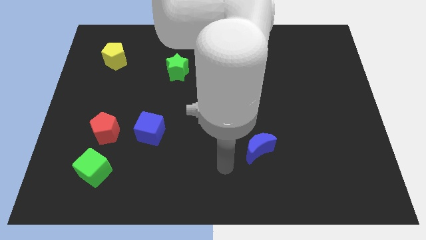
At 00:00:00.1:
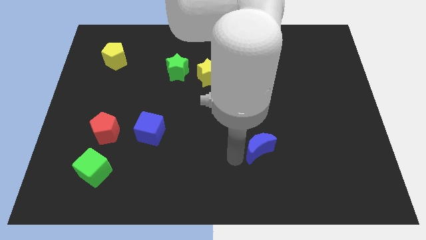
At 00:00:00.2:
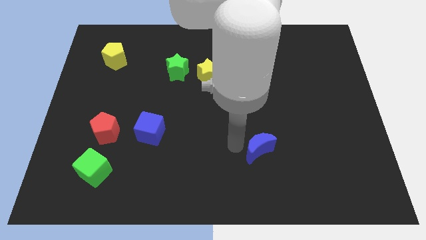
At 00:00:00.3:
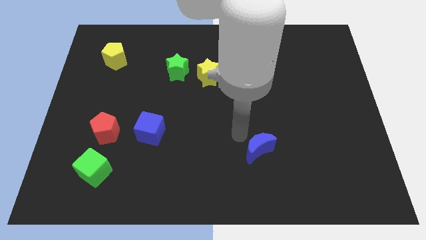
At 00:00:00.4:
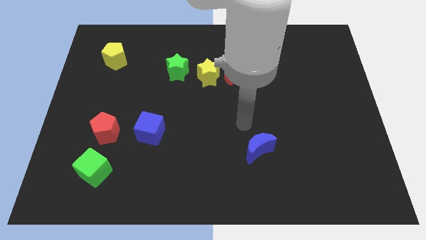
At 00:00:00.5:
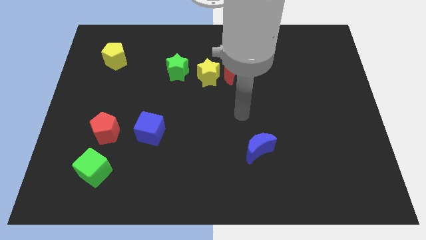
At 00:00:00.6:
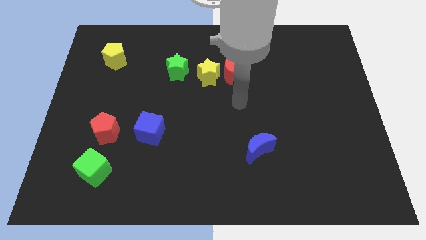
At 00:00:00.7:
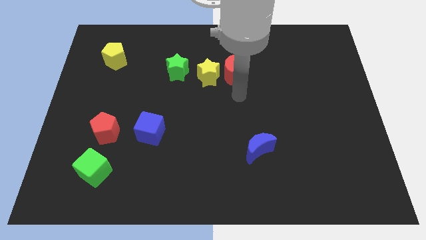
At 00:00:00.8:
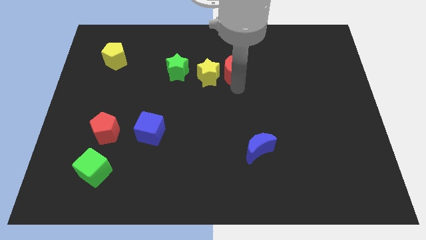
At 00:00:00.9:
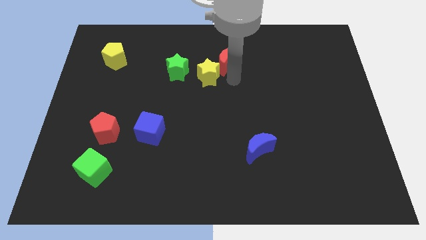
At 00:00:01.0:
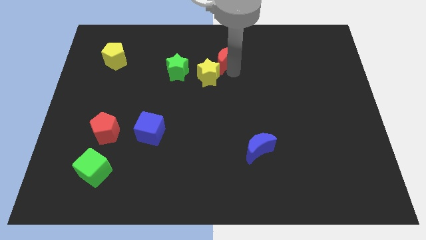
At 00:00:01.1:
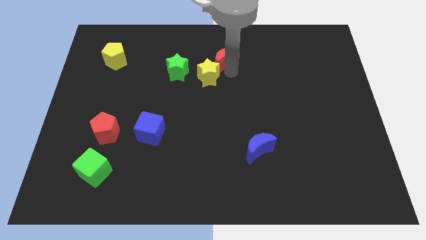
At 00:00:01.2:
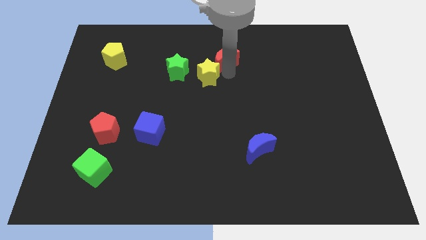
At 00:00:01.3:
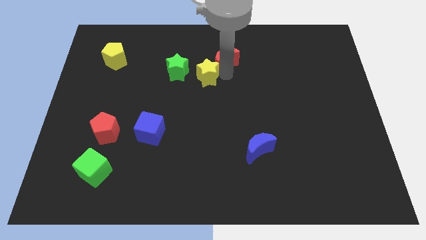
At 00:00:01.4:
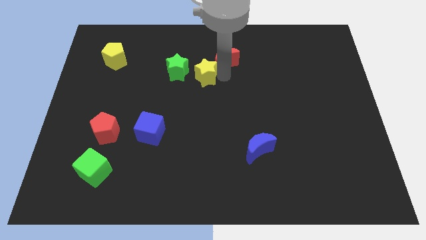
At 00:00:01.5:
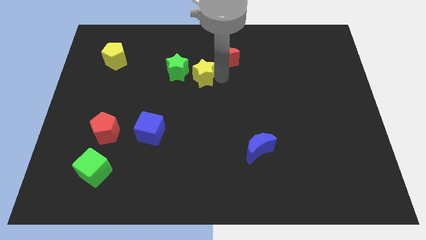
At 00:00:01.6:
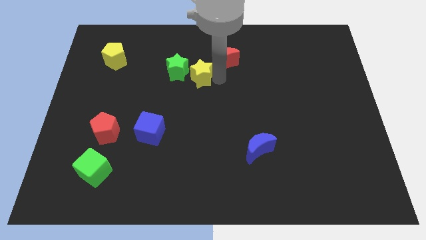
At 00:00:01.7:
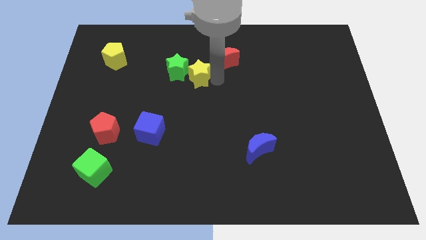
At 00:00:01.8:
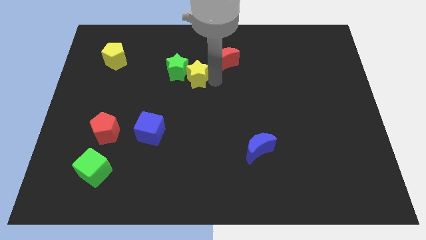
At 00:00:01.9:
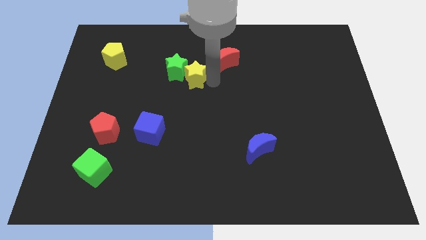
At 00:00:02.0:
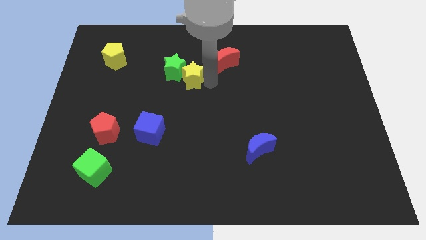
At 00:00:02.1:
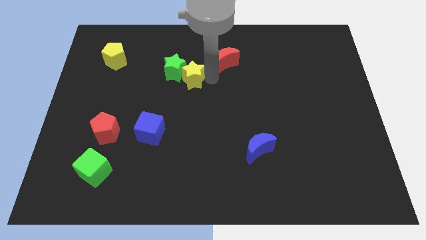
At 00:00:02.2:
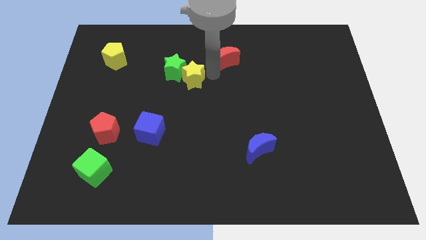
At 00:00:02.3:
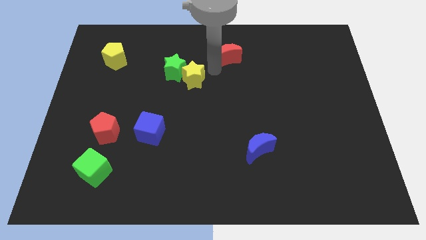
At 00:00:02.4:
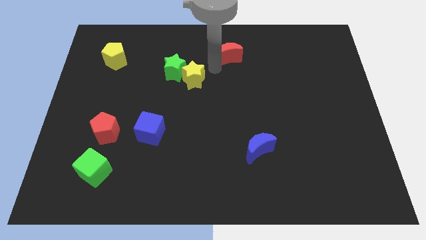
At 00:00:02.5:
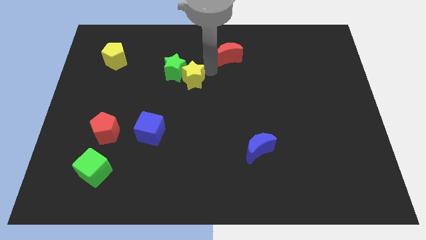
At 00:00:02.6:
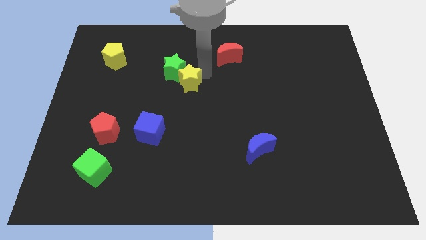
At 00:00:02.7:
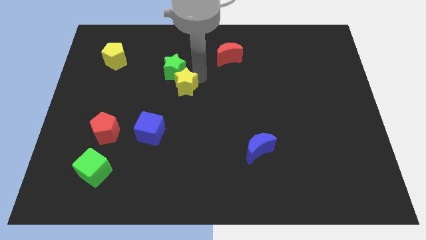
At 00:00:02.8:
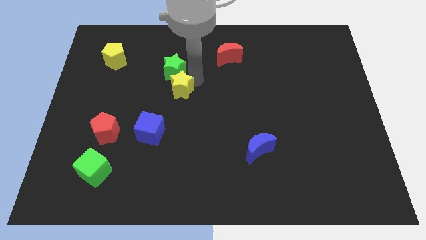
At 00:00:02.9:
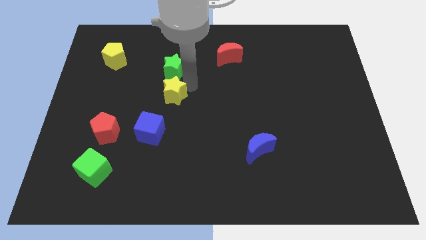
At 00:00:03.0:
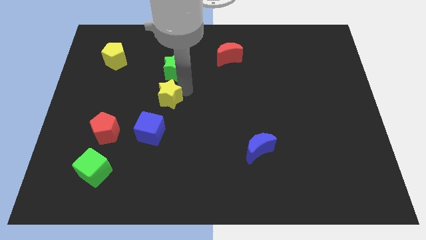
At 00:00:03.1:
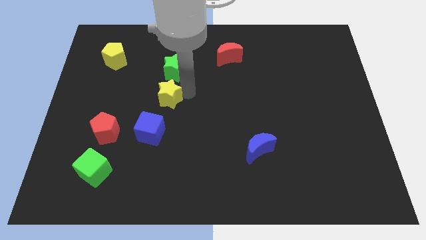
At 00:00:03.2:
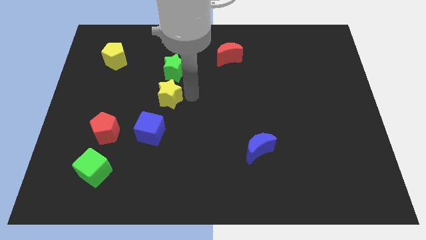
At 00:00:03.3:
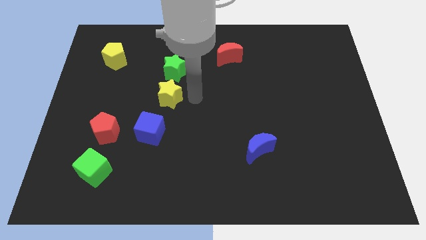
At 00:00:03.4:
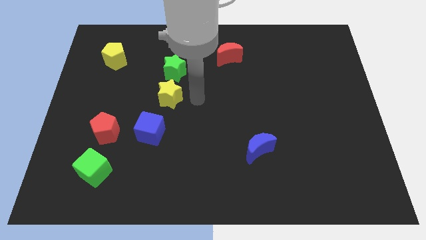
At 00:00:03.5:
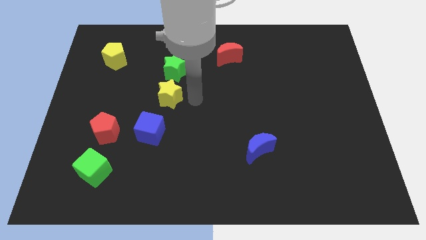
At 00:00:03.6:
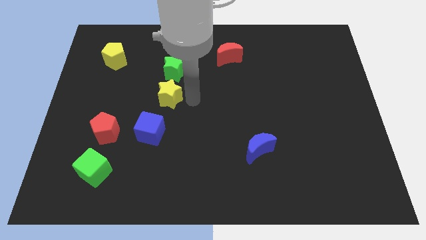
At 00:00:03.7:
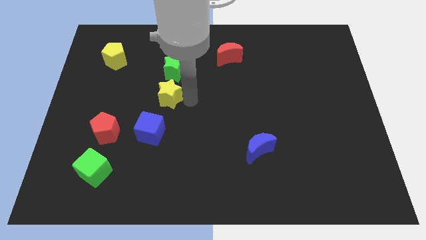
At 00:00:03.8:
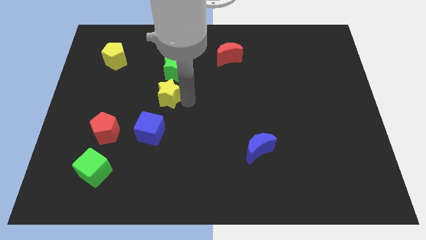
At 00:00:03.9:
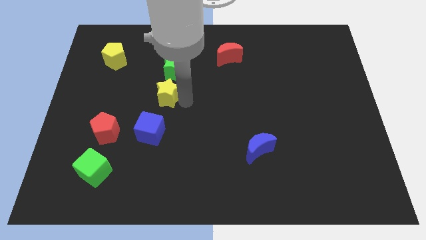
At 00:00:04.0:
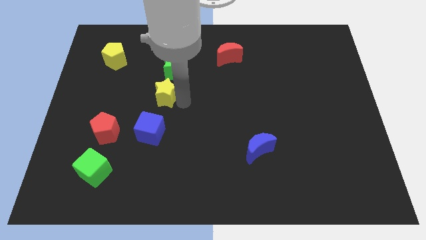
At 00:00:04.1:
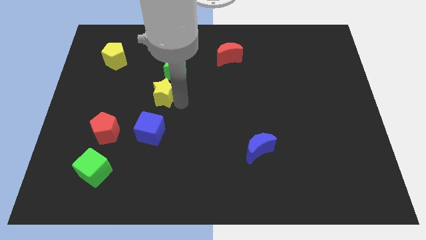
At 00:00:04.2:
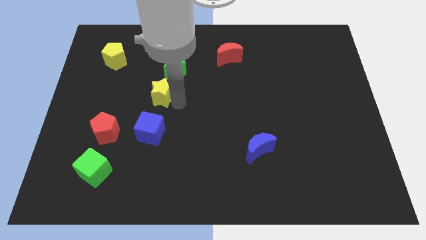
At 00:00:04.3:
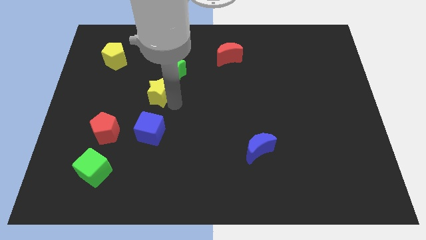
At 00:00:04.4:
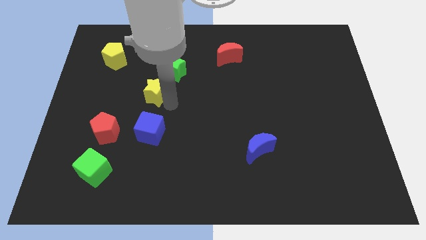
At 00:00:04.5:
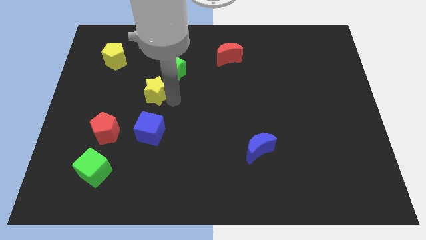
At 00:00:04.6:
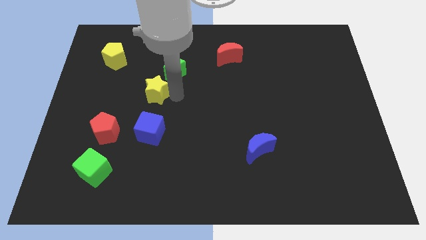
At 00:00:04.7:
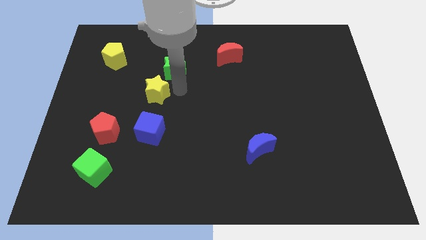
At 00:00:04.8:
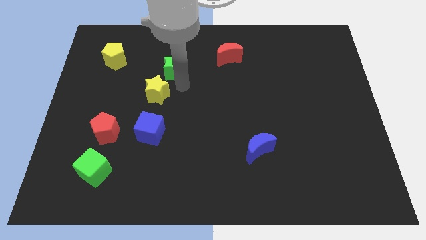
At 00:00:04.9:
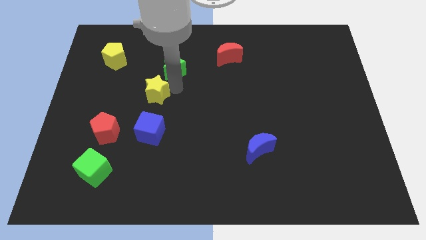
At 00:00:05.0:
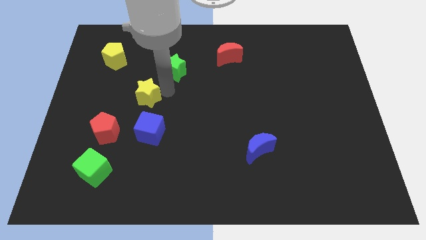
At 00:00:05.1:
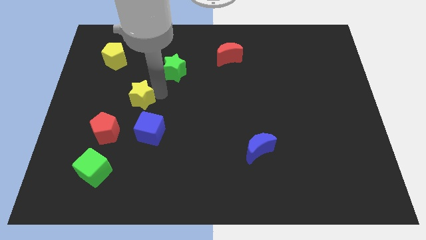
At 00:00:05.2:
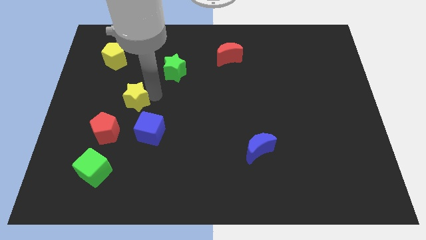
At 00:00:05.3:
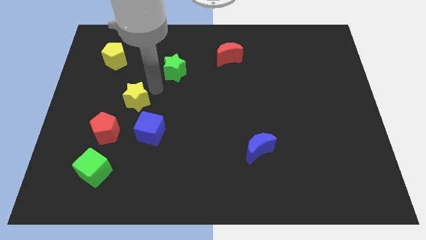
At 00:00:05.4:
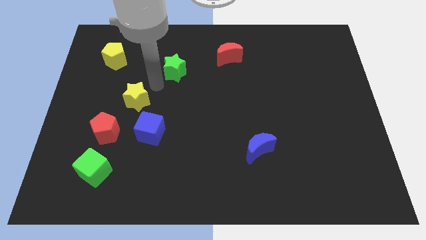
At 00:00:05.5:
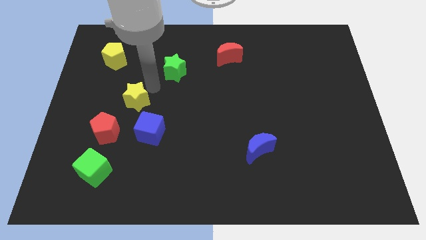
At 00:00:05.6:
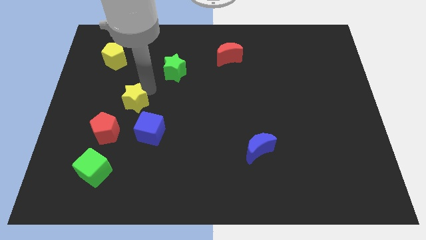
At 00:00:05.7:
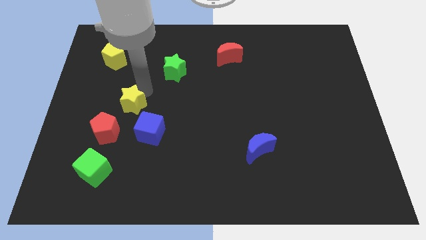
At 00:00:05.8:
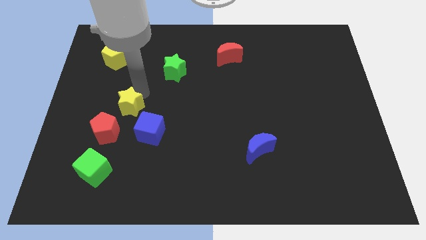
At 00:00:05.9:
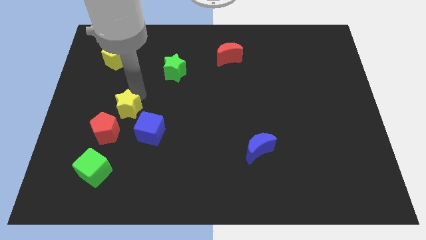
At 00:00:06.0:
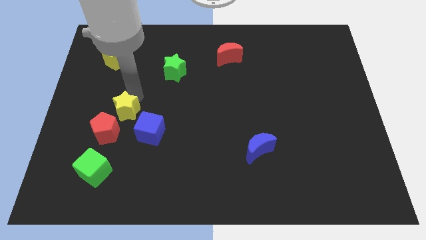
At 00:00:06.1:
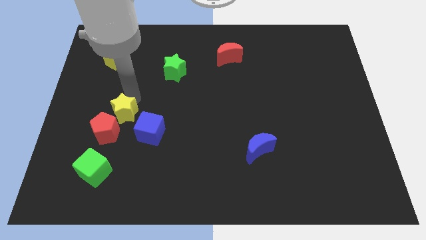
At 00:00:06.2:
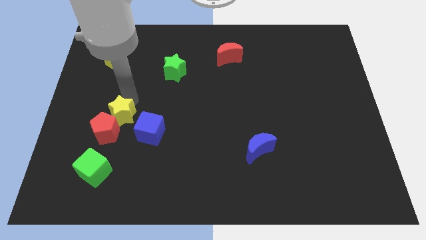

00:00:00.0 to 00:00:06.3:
move the yellow star to the top side of the green cube
